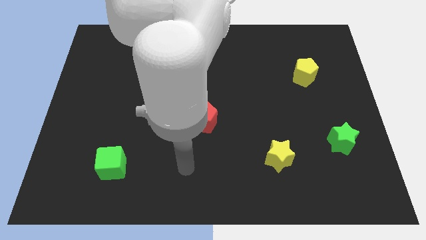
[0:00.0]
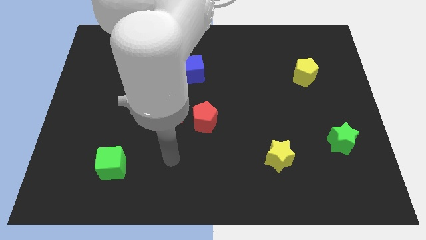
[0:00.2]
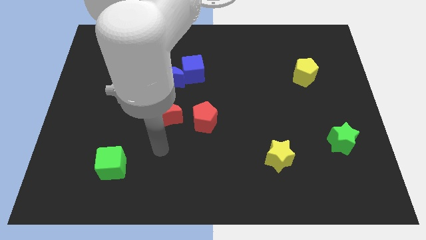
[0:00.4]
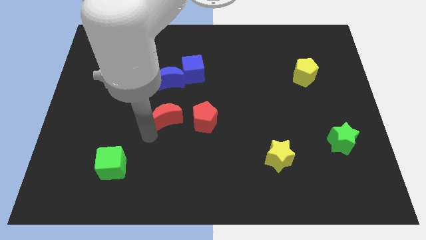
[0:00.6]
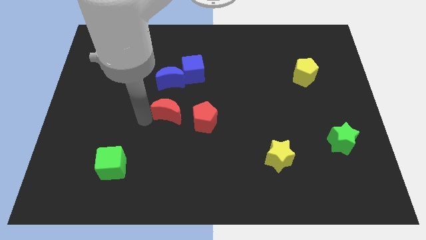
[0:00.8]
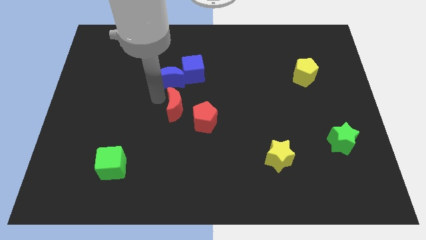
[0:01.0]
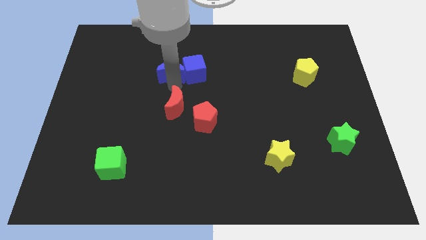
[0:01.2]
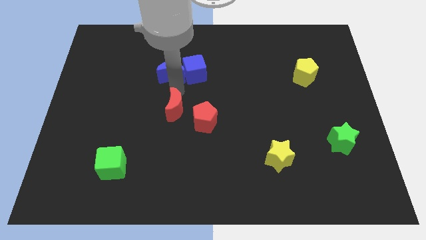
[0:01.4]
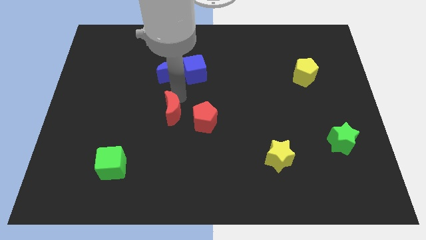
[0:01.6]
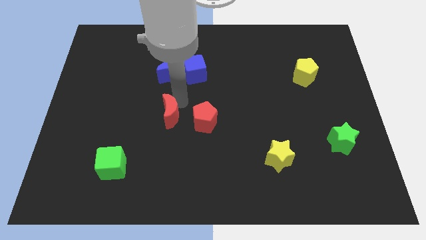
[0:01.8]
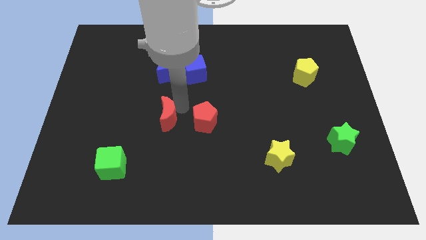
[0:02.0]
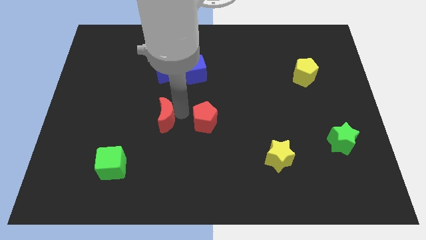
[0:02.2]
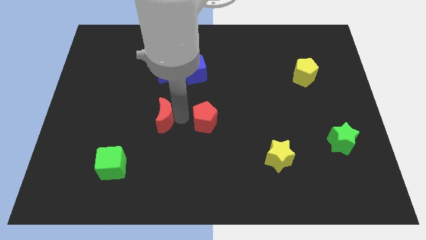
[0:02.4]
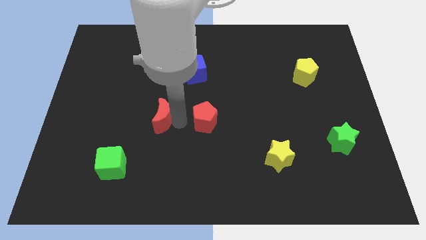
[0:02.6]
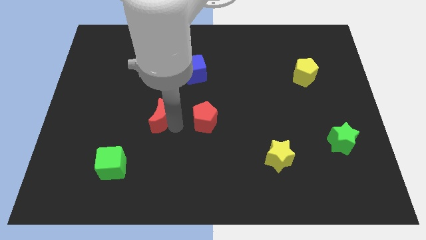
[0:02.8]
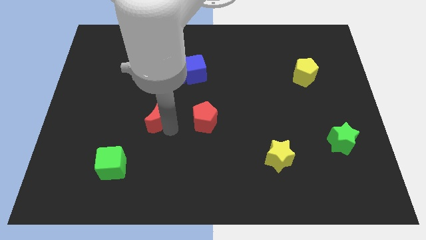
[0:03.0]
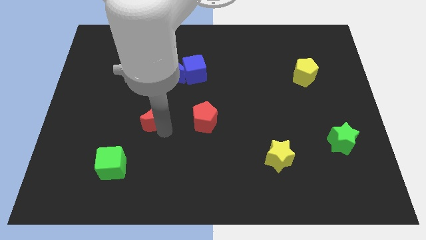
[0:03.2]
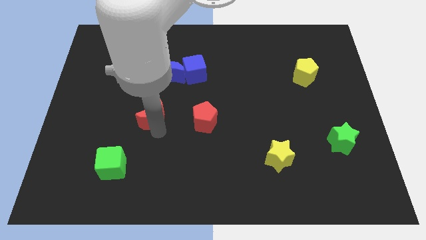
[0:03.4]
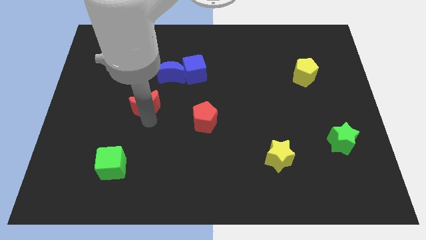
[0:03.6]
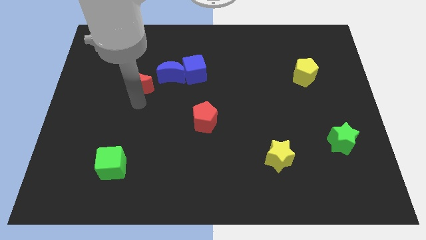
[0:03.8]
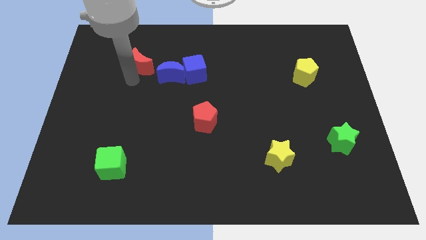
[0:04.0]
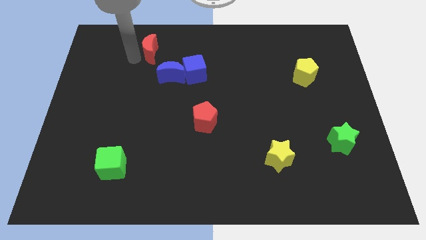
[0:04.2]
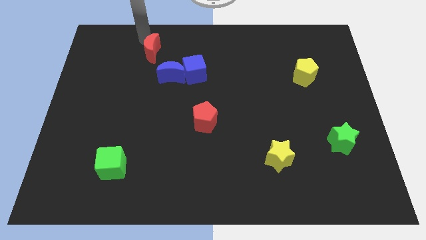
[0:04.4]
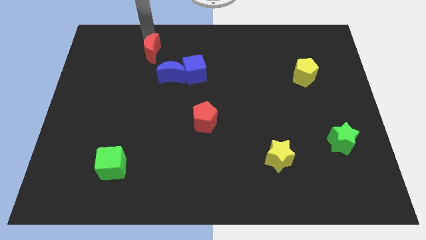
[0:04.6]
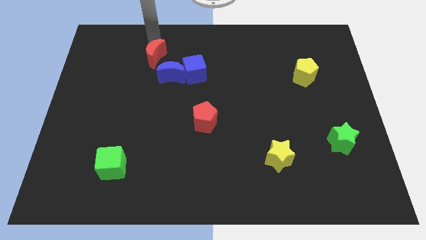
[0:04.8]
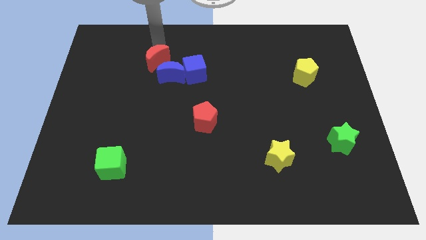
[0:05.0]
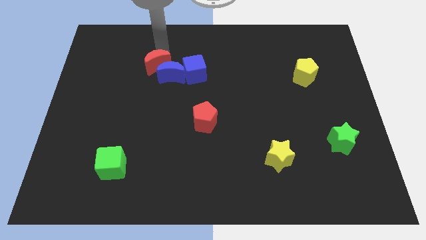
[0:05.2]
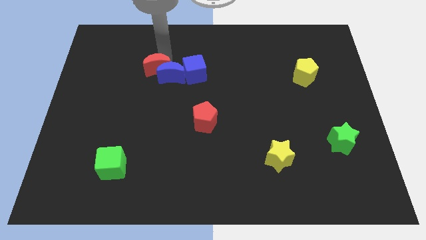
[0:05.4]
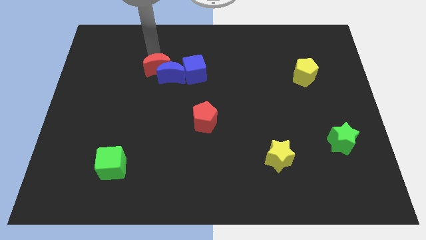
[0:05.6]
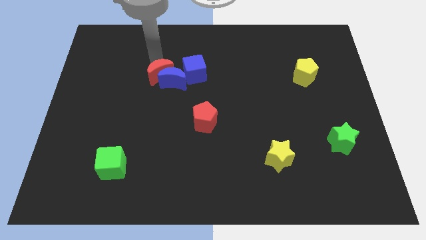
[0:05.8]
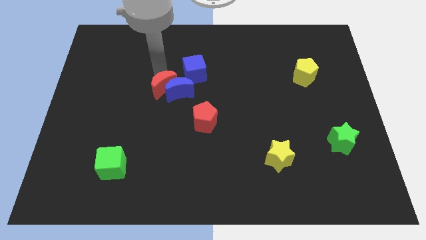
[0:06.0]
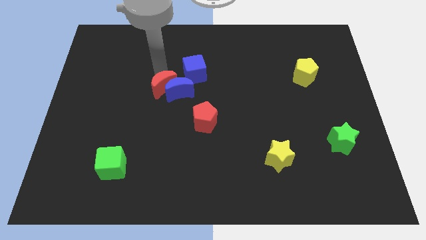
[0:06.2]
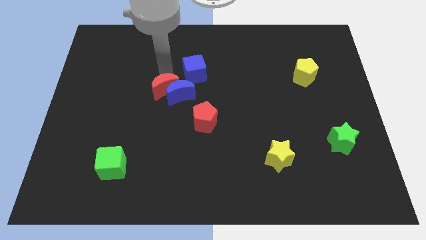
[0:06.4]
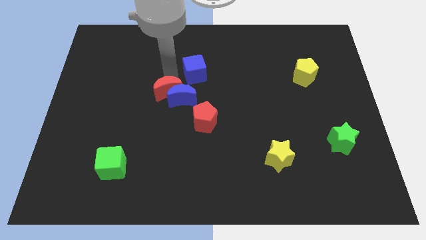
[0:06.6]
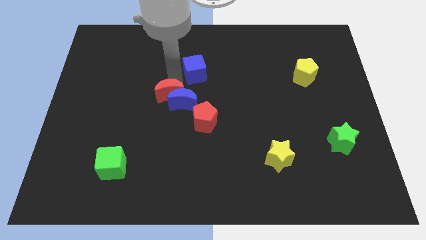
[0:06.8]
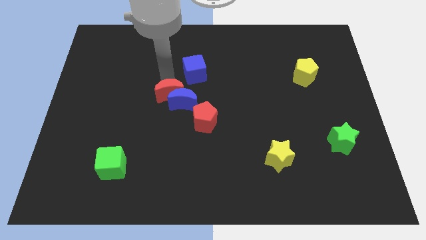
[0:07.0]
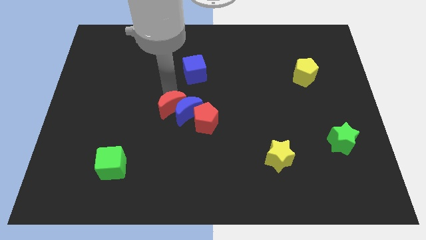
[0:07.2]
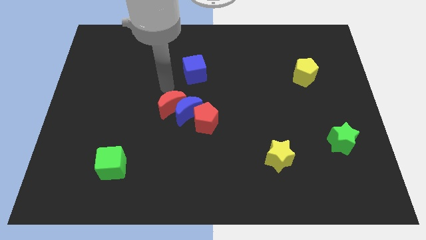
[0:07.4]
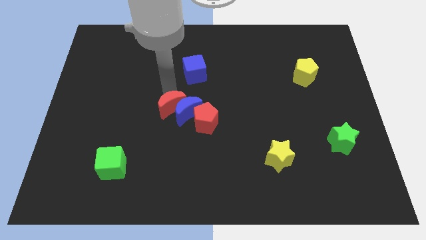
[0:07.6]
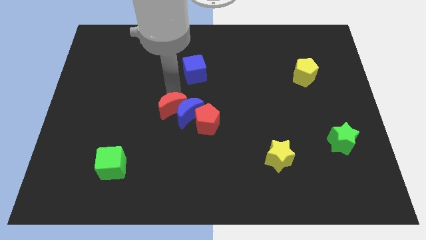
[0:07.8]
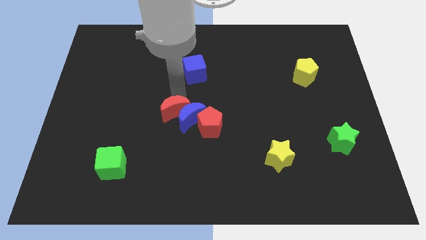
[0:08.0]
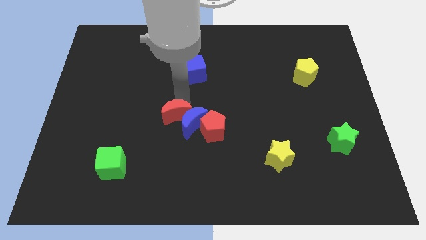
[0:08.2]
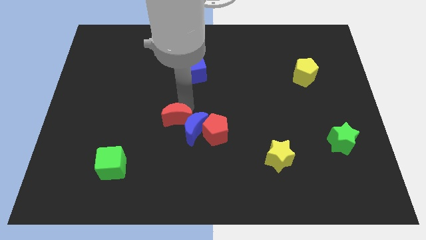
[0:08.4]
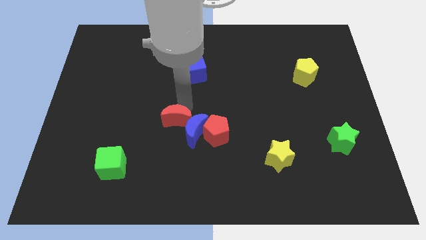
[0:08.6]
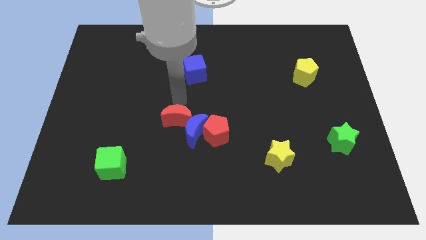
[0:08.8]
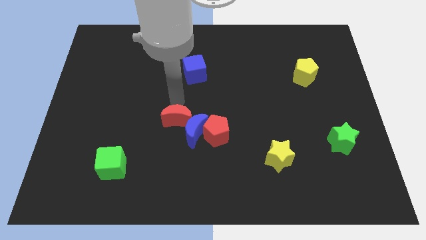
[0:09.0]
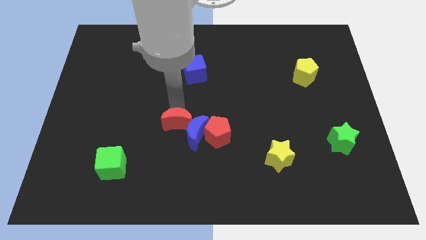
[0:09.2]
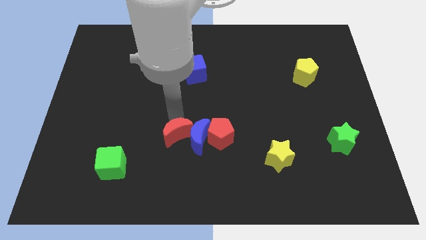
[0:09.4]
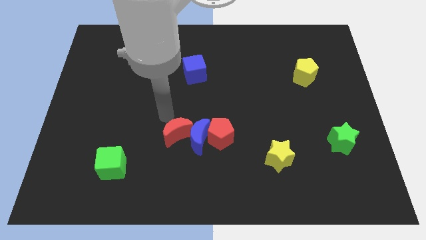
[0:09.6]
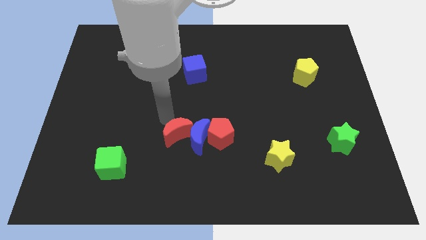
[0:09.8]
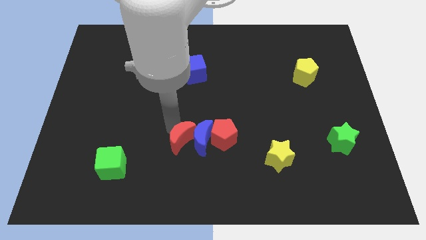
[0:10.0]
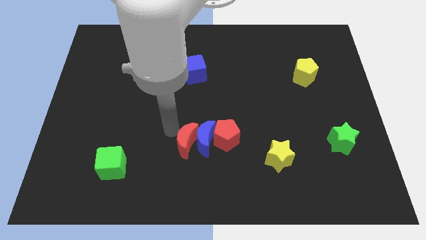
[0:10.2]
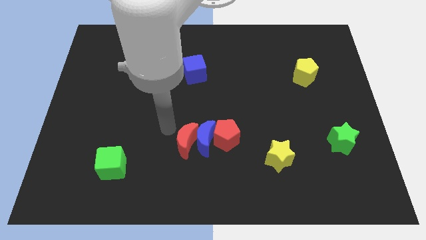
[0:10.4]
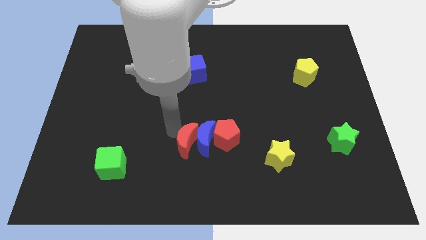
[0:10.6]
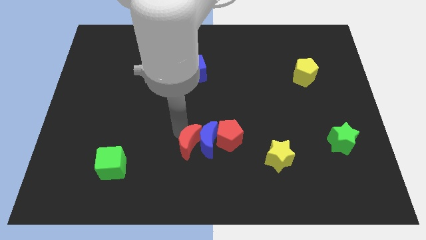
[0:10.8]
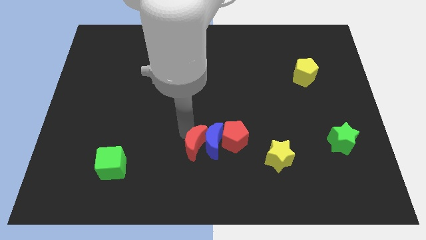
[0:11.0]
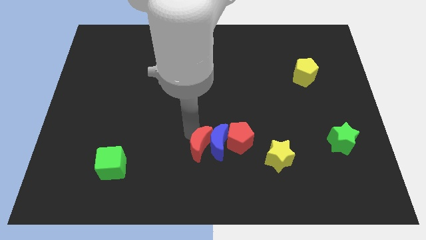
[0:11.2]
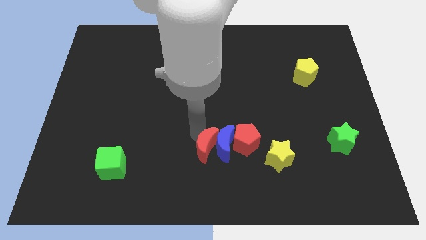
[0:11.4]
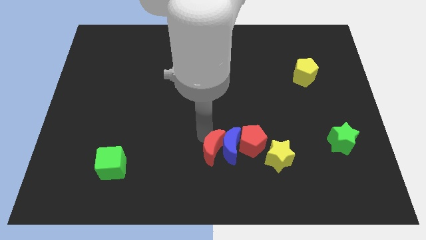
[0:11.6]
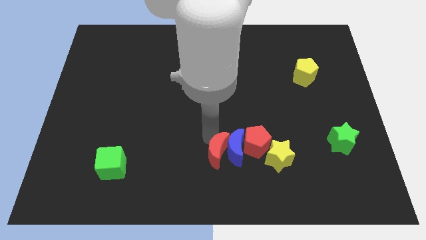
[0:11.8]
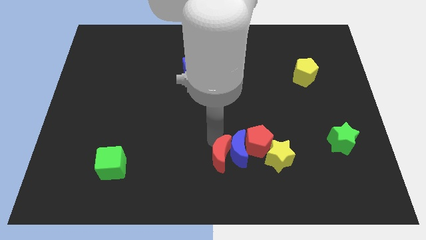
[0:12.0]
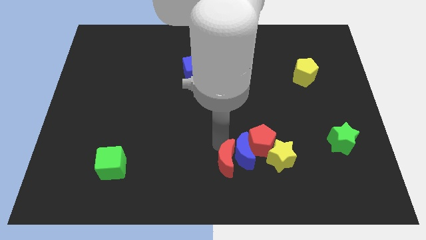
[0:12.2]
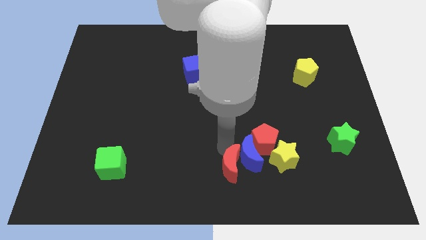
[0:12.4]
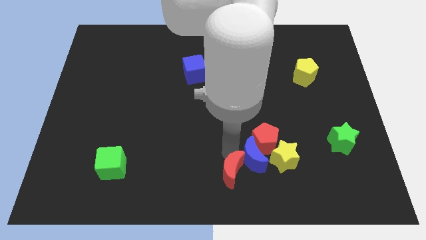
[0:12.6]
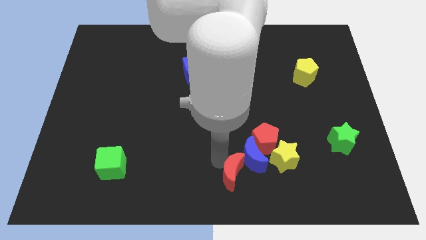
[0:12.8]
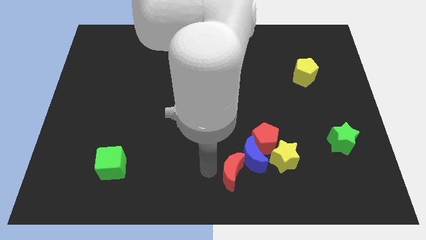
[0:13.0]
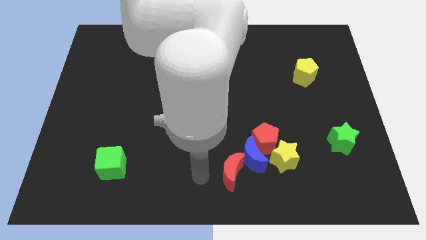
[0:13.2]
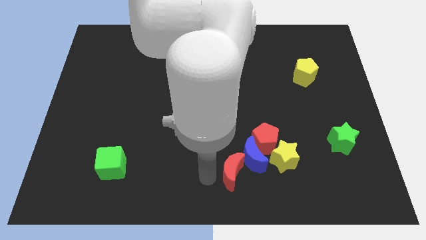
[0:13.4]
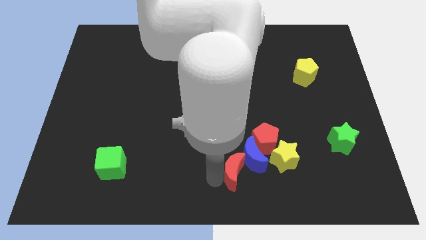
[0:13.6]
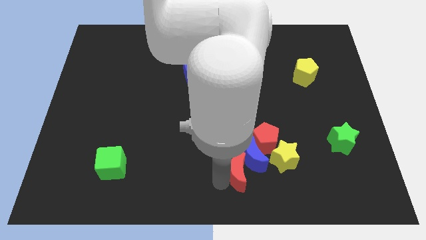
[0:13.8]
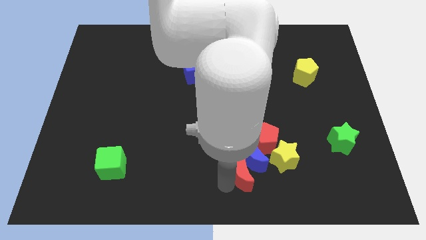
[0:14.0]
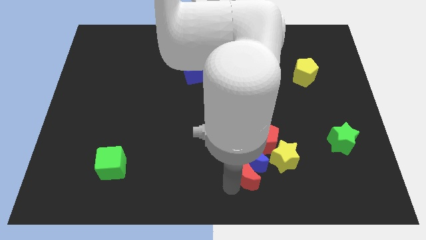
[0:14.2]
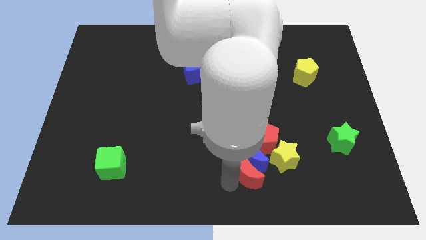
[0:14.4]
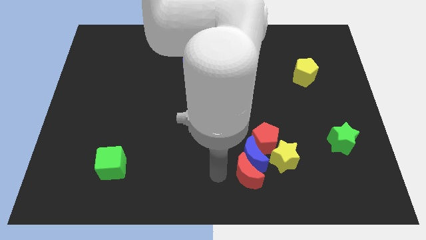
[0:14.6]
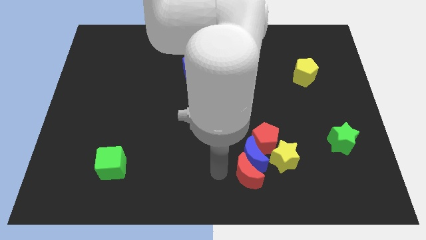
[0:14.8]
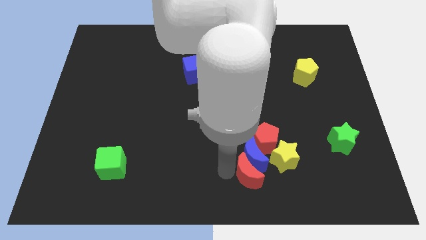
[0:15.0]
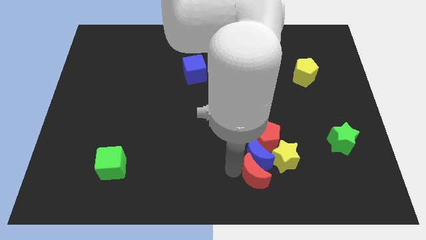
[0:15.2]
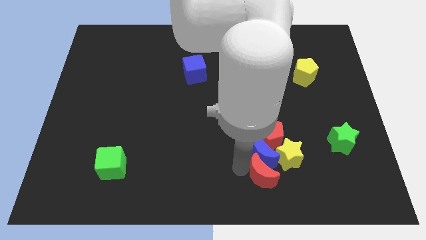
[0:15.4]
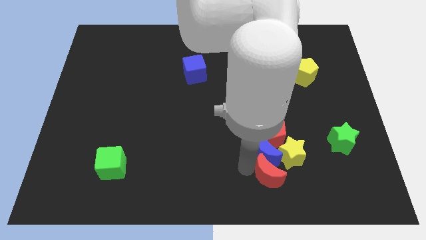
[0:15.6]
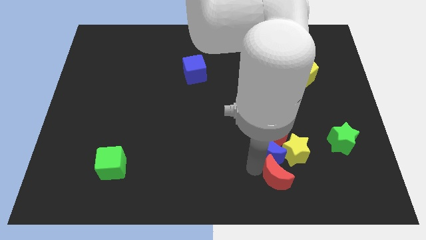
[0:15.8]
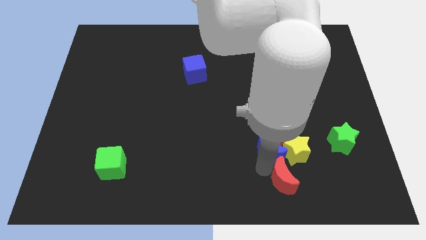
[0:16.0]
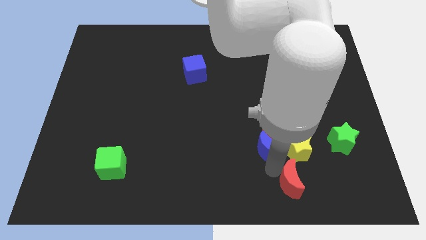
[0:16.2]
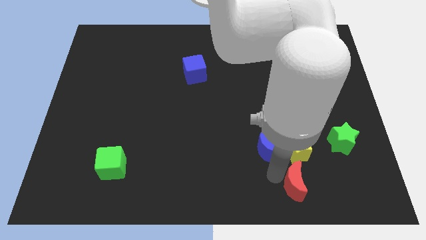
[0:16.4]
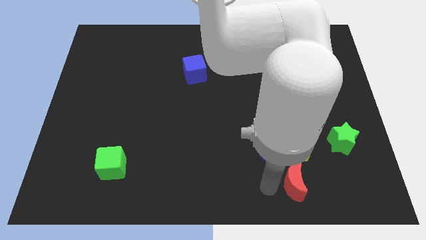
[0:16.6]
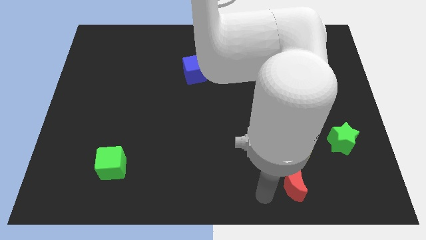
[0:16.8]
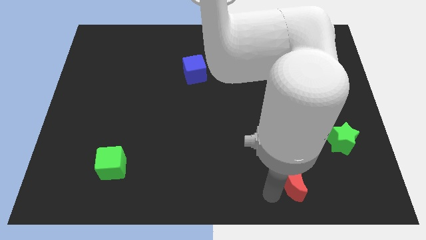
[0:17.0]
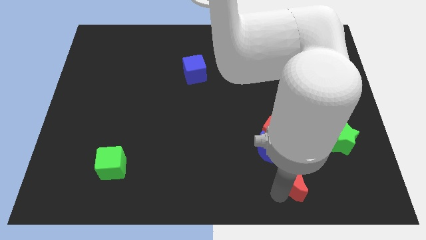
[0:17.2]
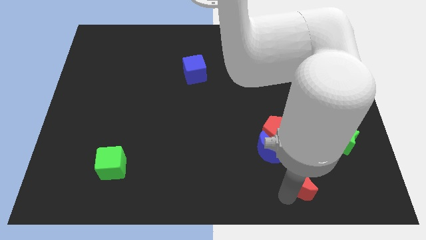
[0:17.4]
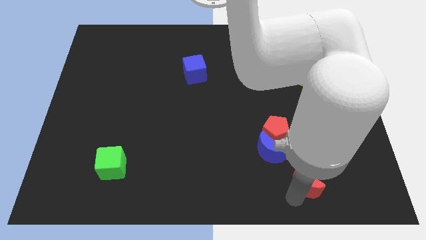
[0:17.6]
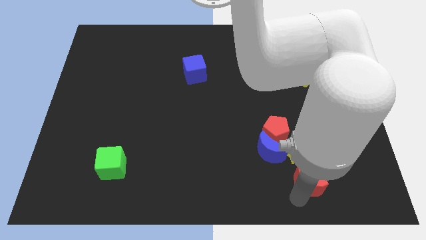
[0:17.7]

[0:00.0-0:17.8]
push the red moon to the bottom right side of the yellow star
